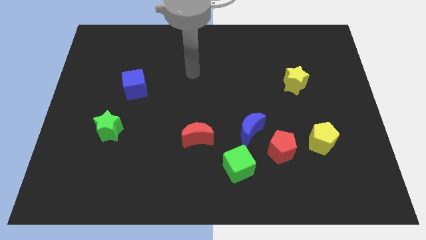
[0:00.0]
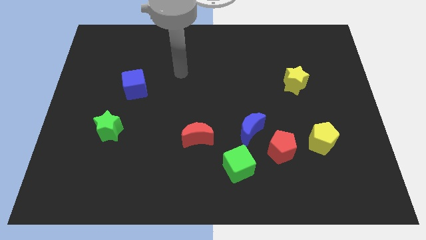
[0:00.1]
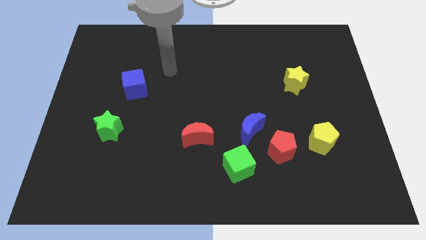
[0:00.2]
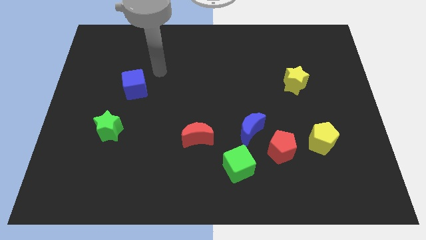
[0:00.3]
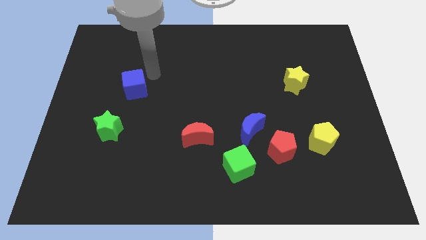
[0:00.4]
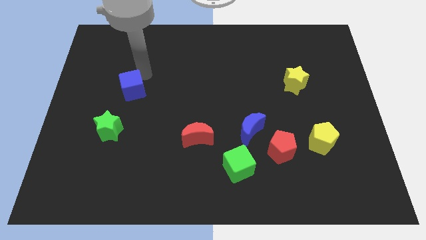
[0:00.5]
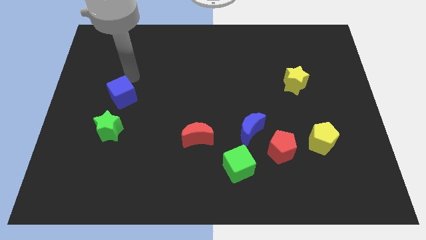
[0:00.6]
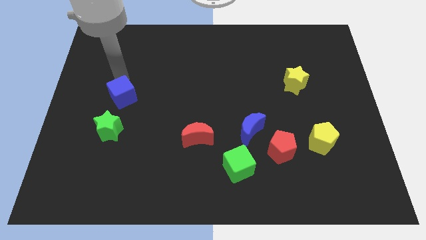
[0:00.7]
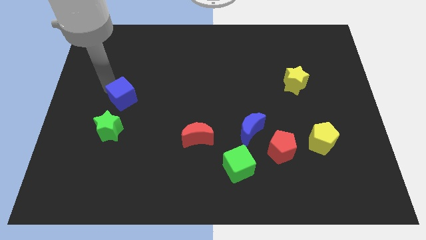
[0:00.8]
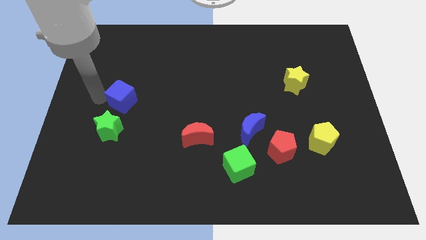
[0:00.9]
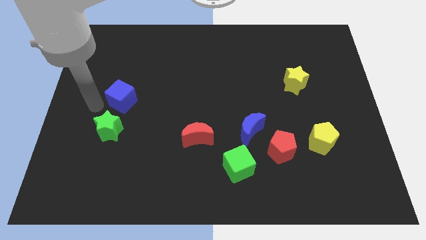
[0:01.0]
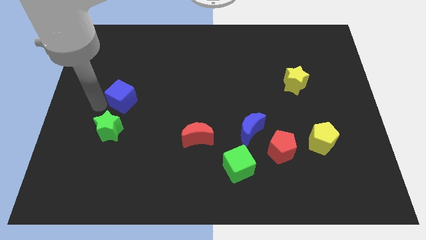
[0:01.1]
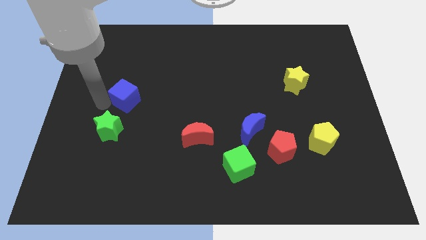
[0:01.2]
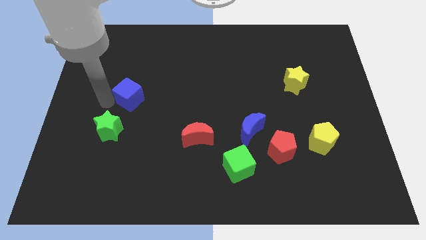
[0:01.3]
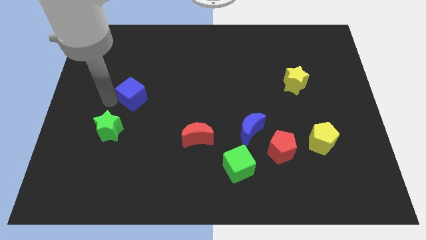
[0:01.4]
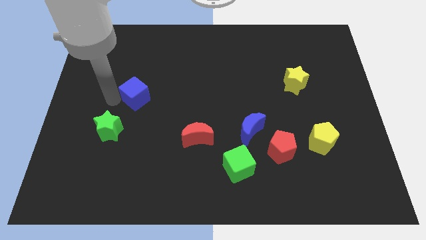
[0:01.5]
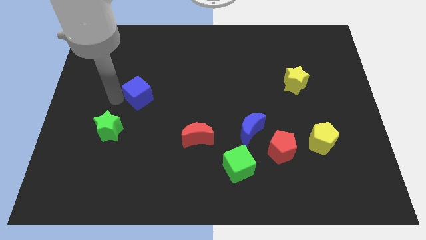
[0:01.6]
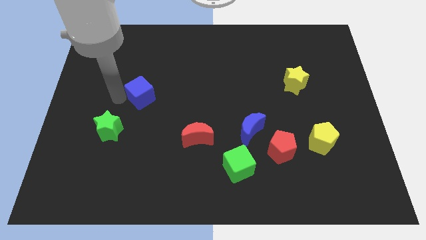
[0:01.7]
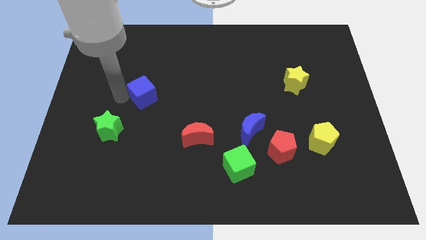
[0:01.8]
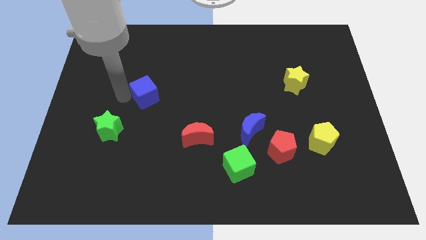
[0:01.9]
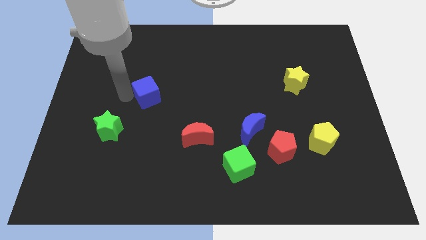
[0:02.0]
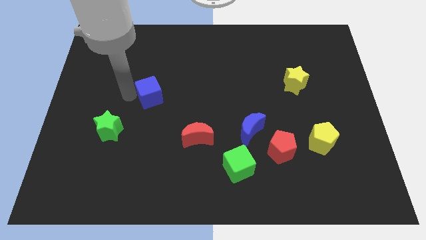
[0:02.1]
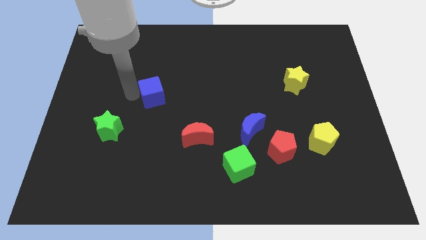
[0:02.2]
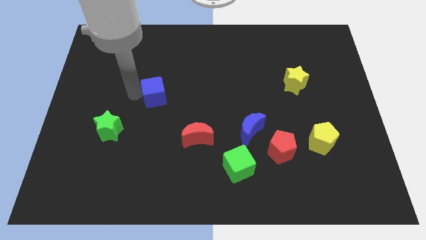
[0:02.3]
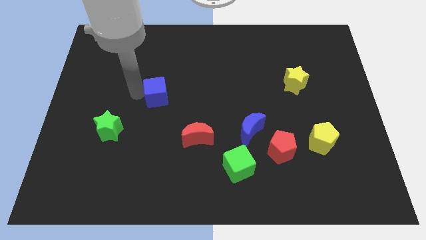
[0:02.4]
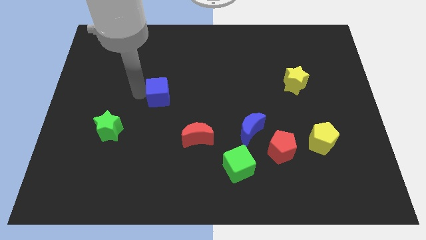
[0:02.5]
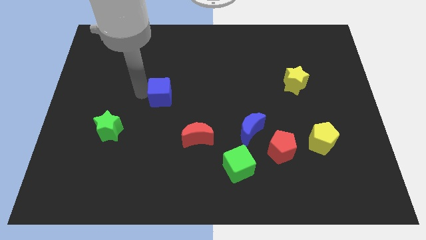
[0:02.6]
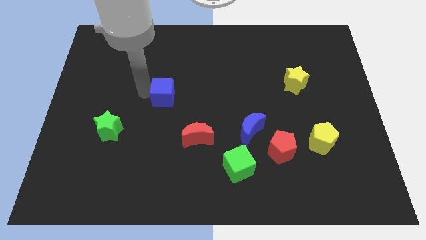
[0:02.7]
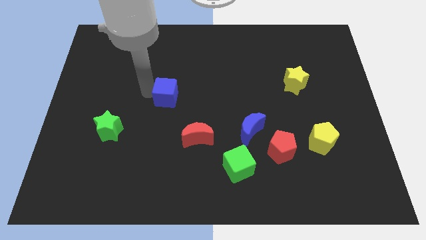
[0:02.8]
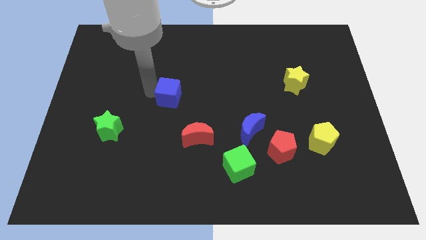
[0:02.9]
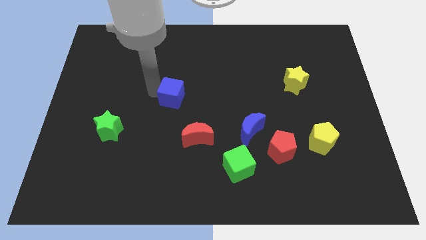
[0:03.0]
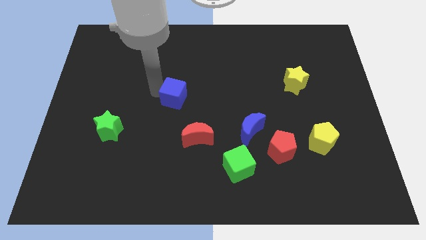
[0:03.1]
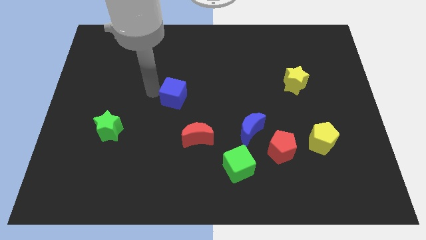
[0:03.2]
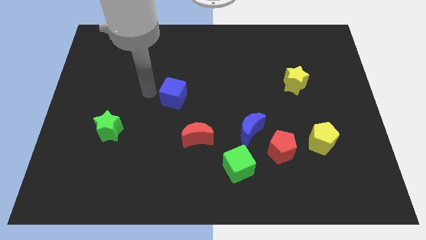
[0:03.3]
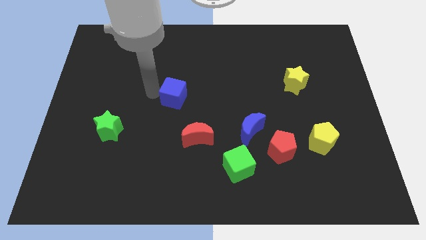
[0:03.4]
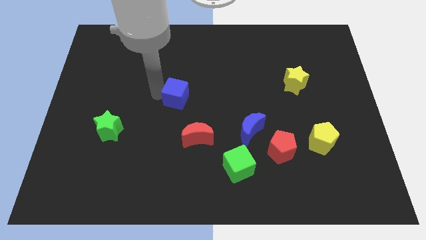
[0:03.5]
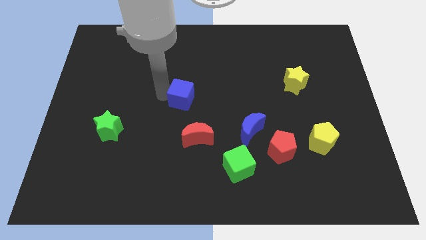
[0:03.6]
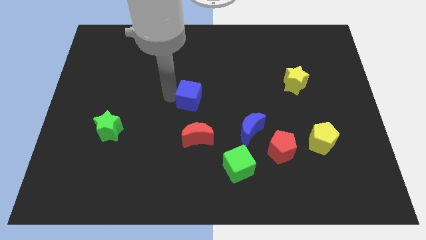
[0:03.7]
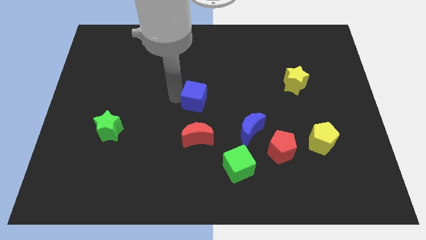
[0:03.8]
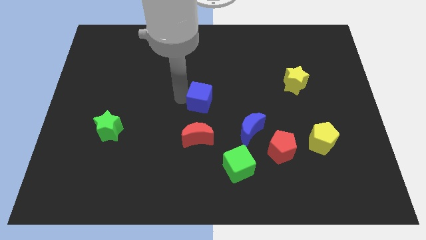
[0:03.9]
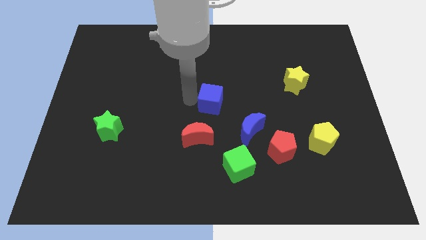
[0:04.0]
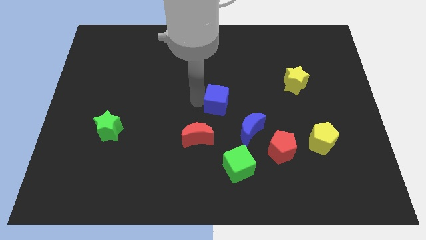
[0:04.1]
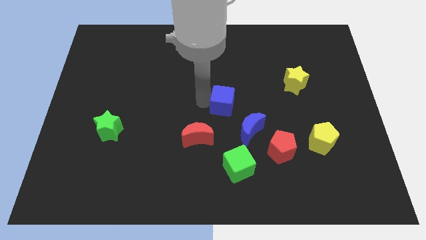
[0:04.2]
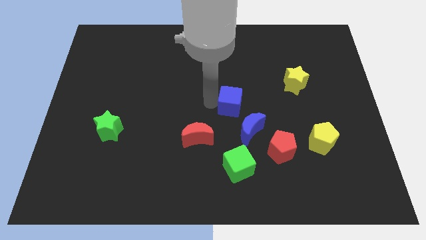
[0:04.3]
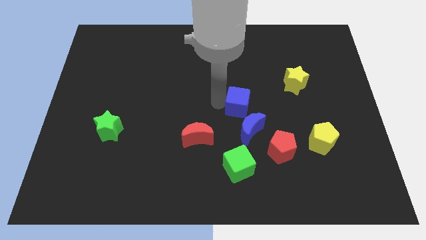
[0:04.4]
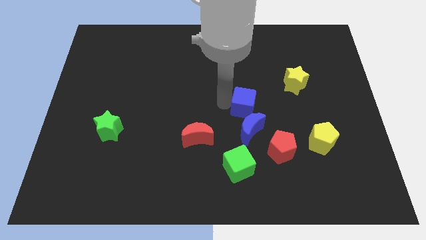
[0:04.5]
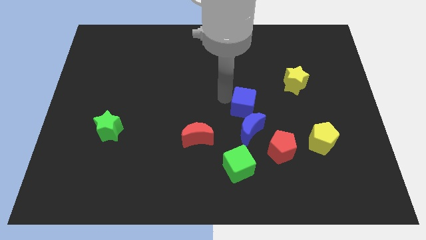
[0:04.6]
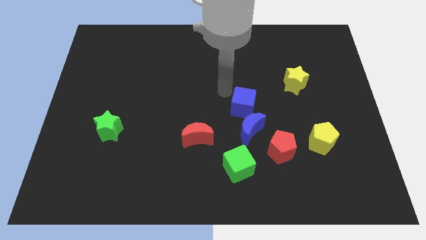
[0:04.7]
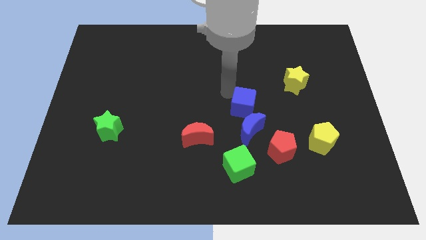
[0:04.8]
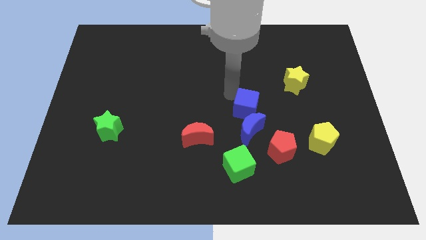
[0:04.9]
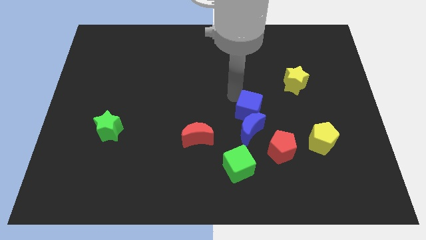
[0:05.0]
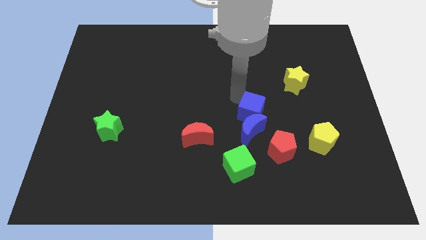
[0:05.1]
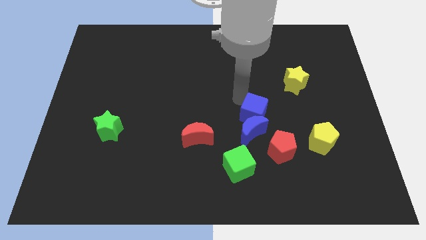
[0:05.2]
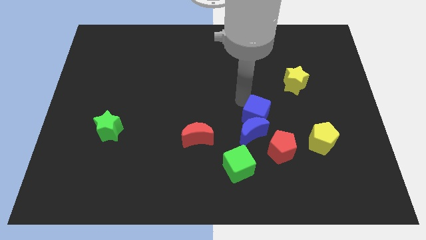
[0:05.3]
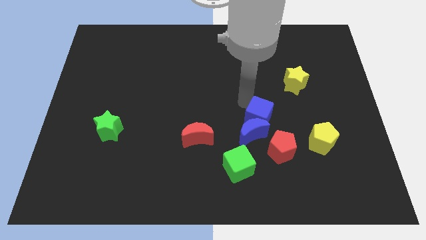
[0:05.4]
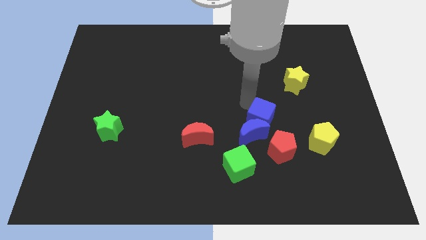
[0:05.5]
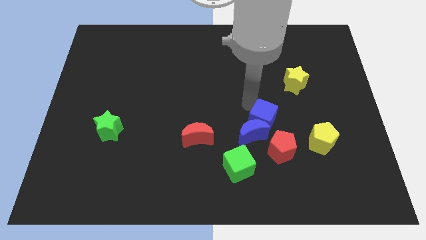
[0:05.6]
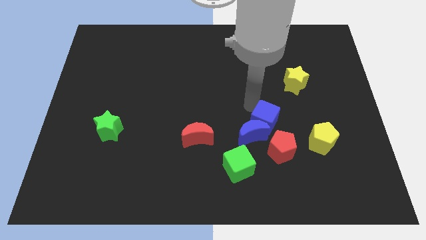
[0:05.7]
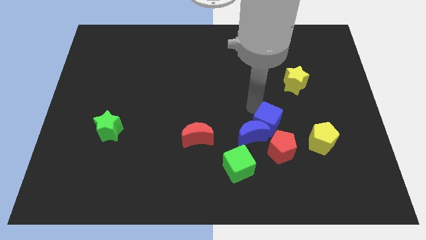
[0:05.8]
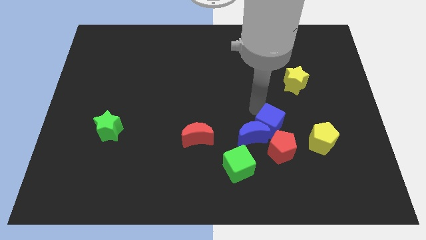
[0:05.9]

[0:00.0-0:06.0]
move the blue cube to the left side of the yellow pentagon

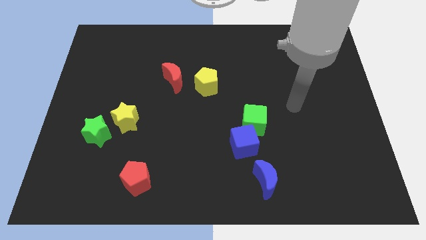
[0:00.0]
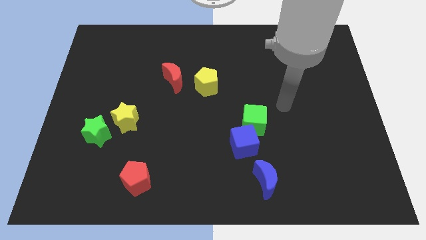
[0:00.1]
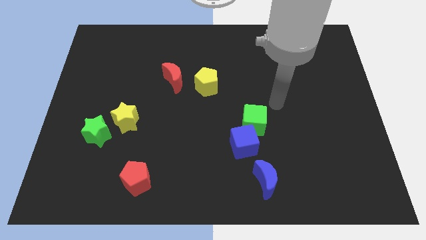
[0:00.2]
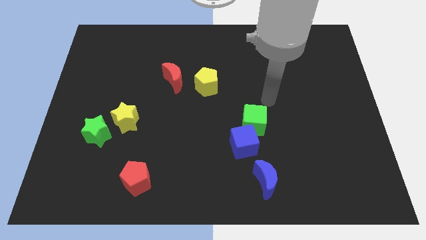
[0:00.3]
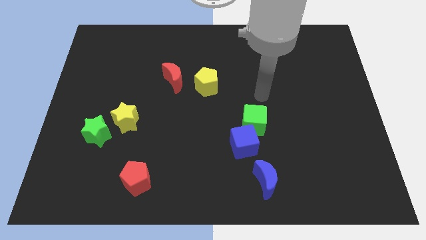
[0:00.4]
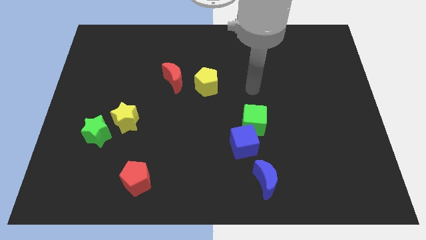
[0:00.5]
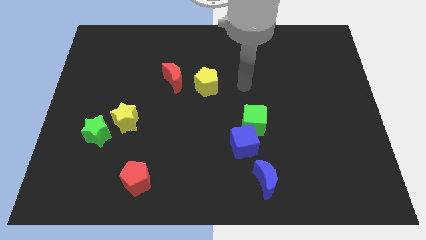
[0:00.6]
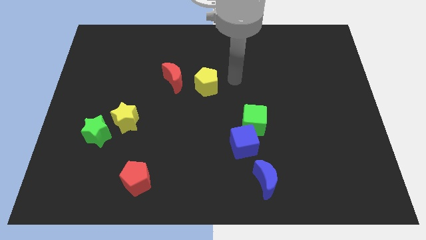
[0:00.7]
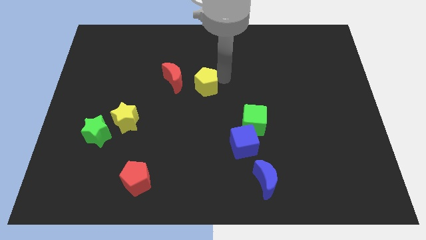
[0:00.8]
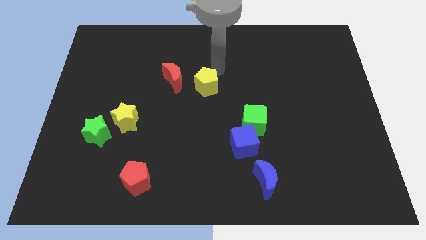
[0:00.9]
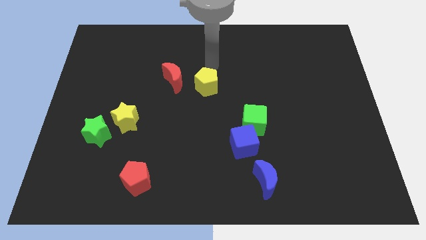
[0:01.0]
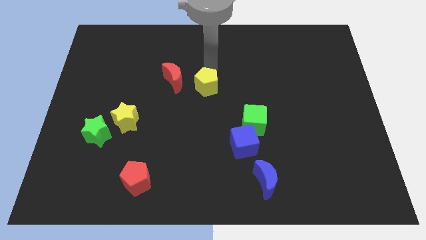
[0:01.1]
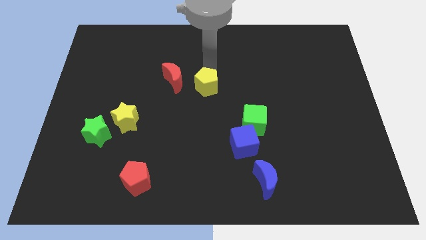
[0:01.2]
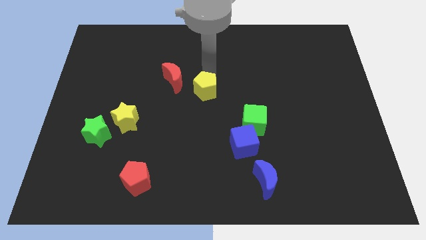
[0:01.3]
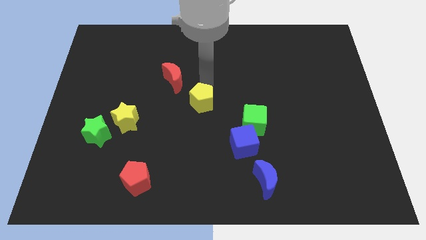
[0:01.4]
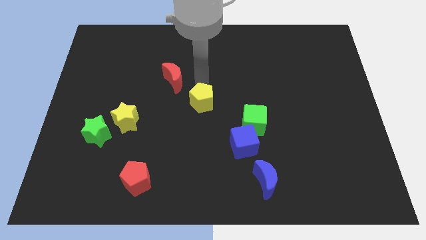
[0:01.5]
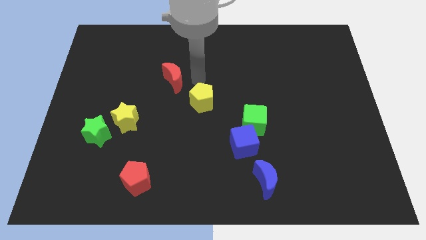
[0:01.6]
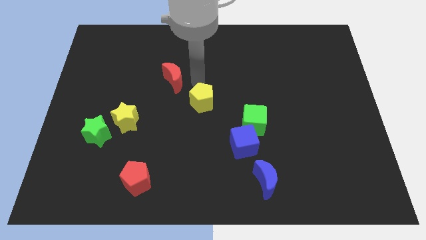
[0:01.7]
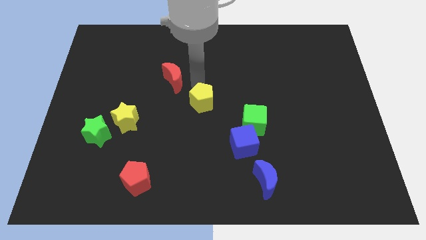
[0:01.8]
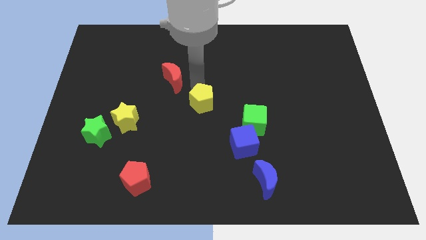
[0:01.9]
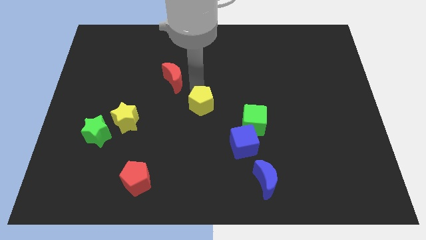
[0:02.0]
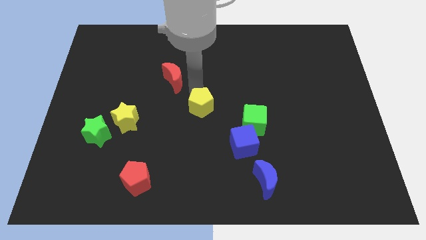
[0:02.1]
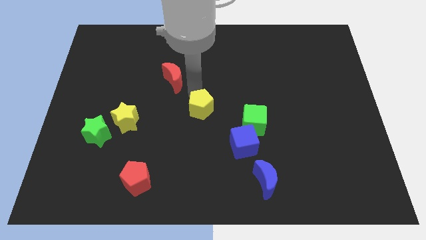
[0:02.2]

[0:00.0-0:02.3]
move the yellow pentagon to the left side of the green cube
